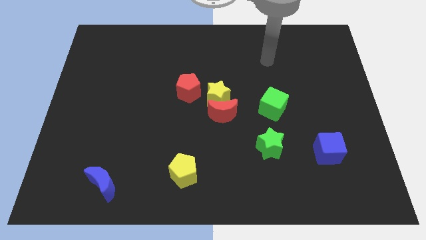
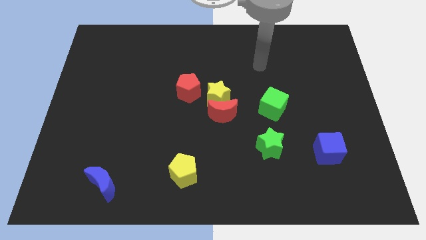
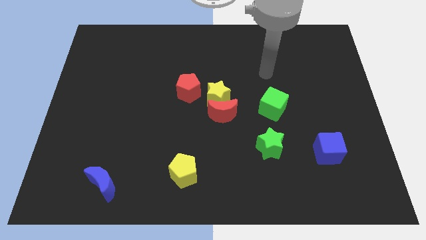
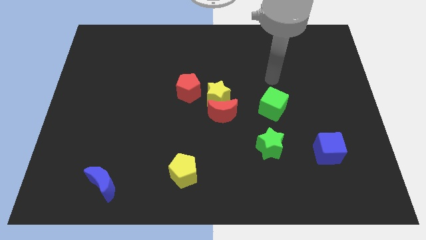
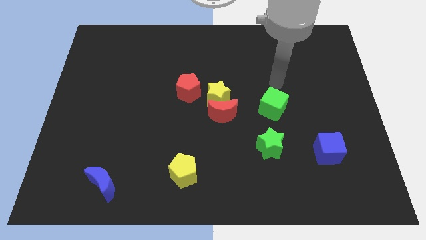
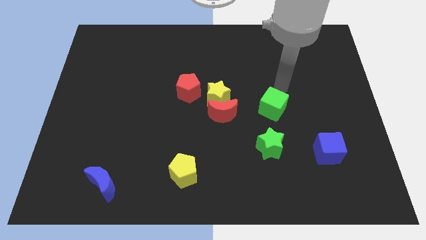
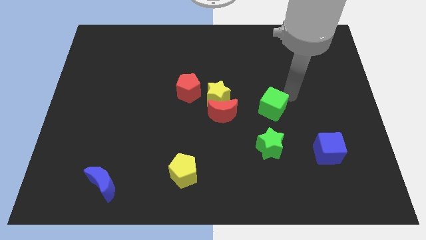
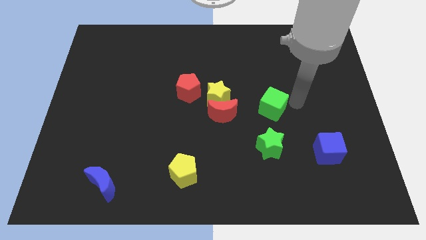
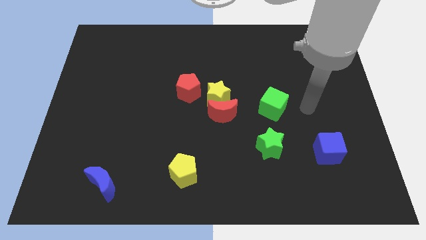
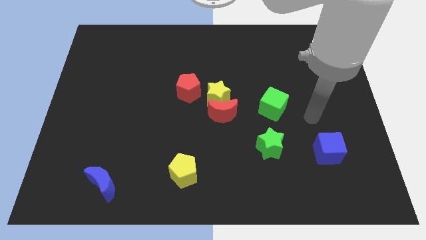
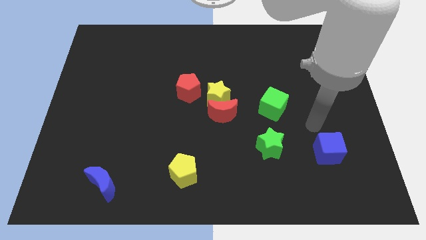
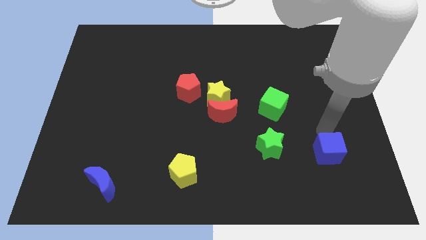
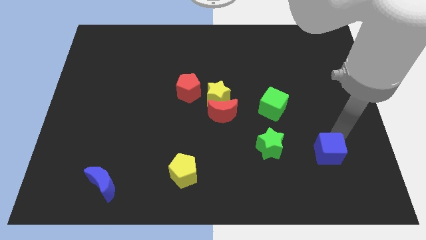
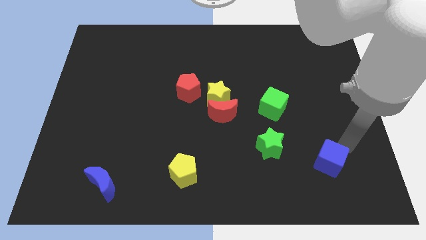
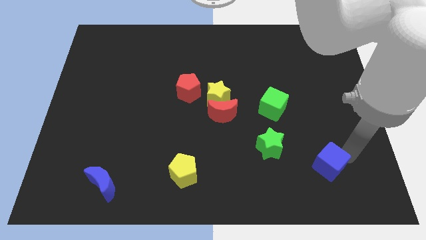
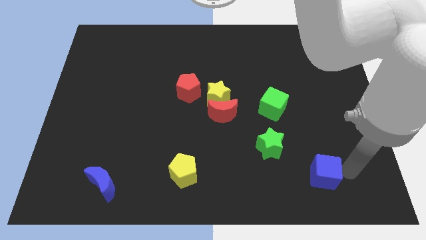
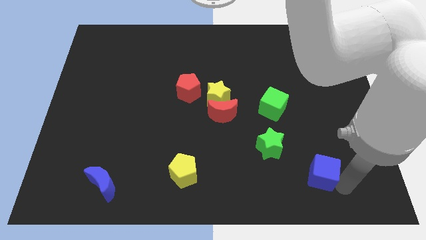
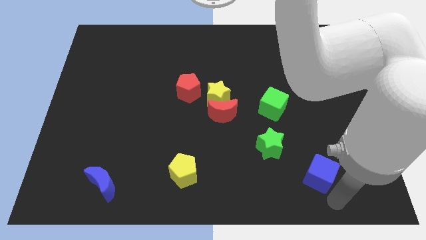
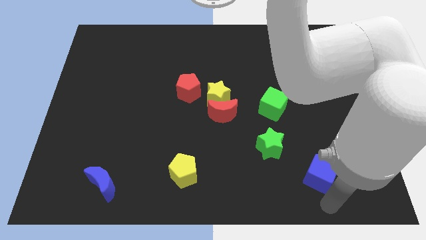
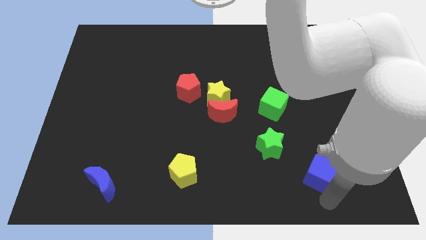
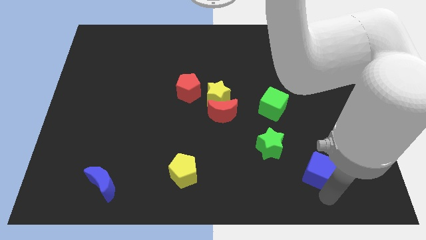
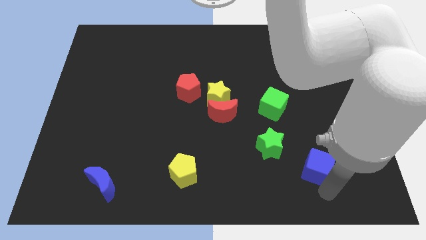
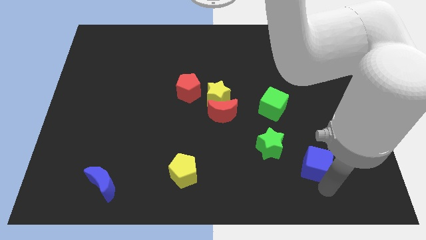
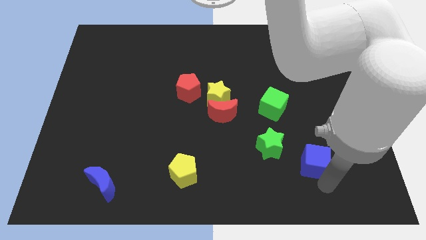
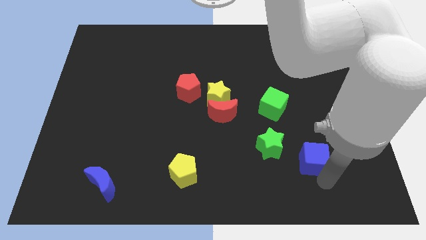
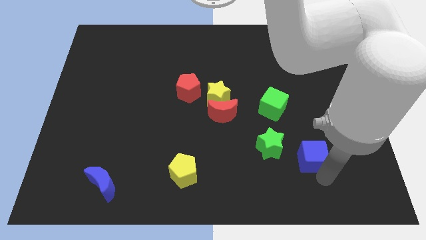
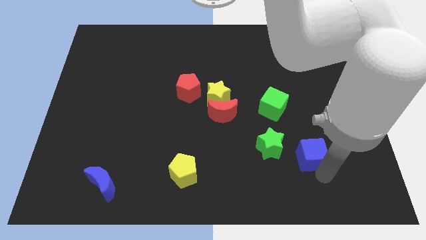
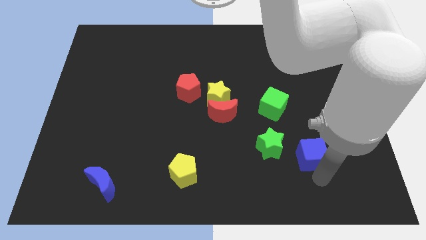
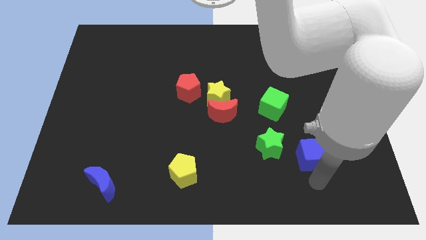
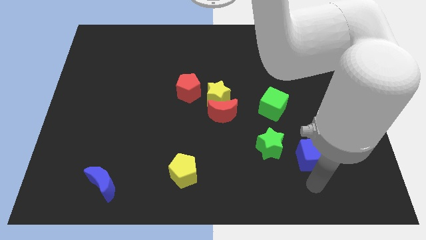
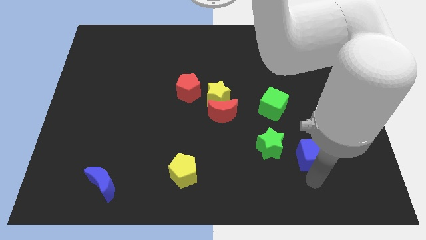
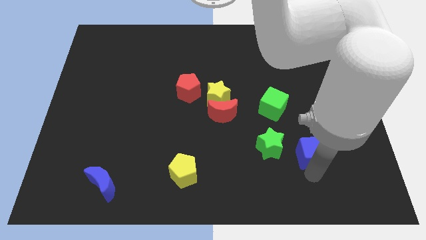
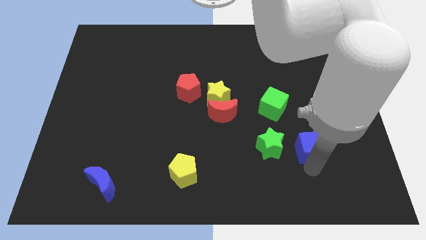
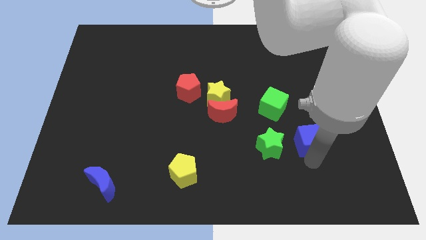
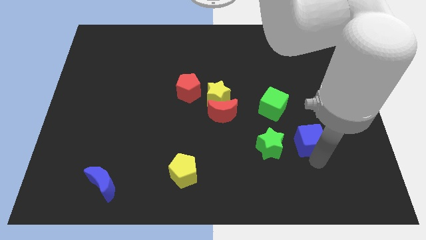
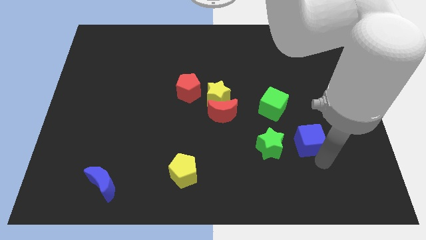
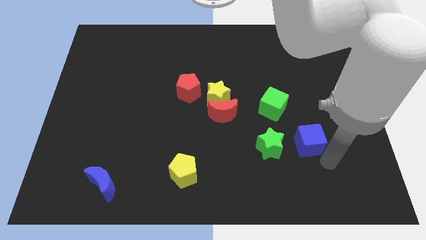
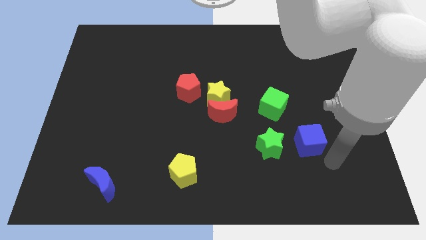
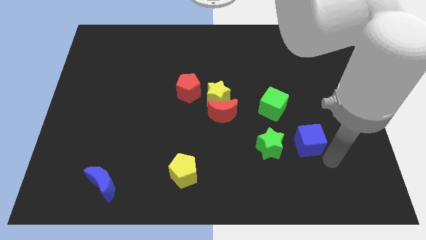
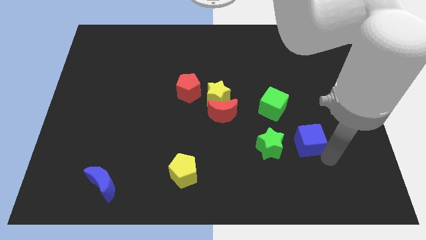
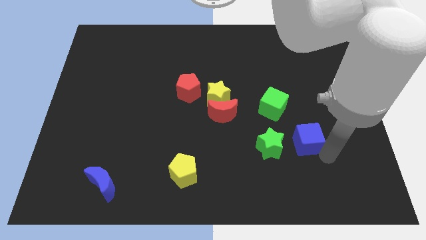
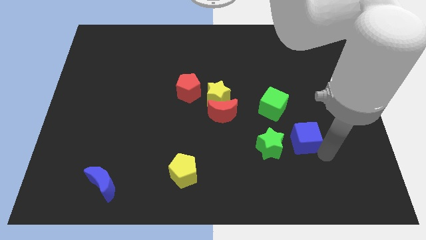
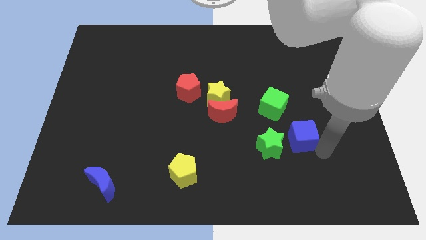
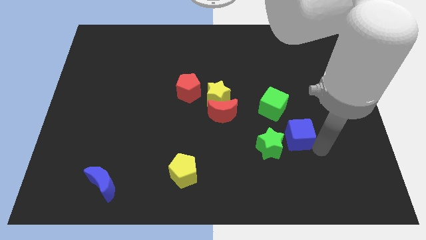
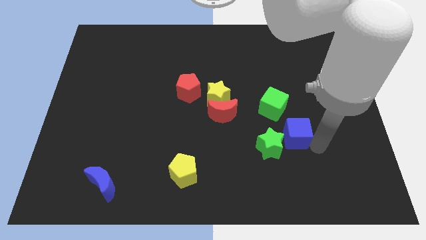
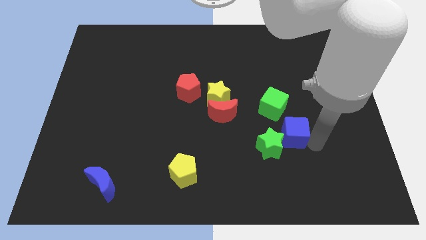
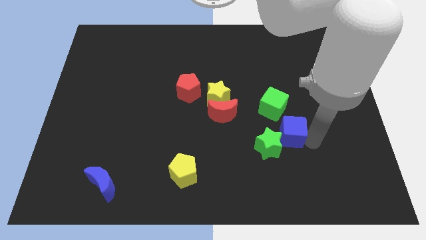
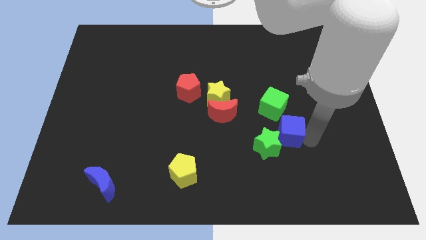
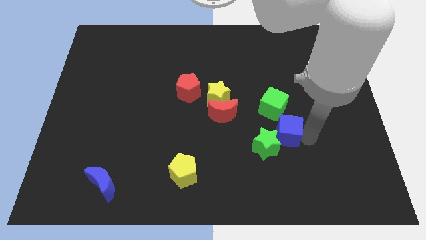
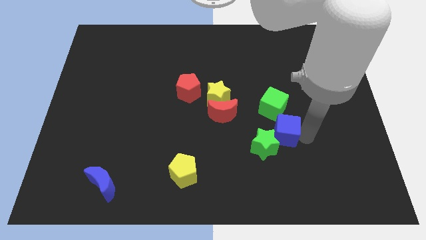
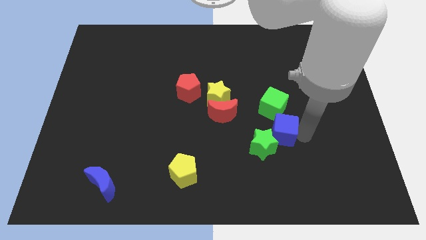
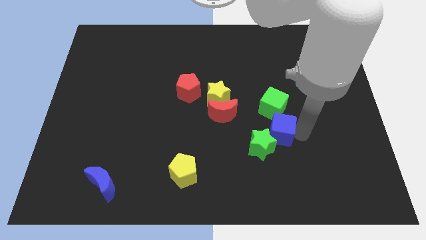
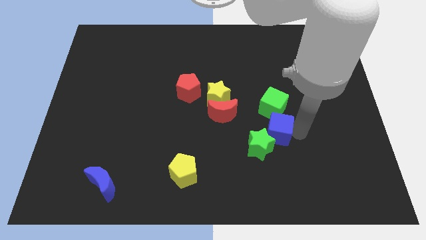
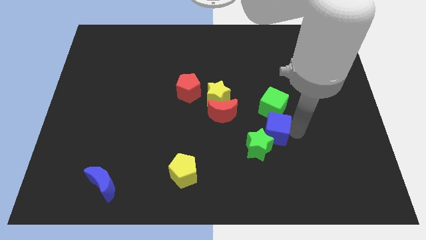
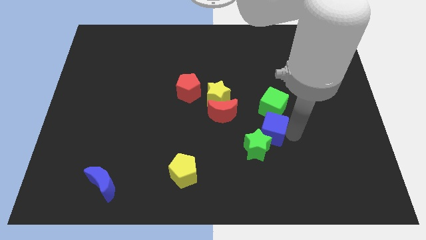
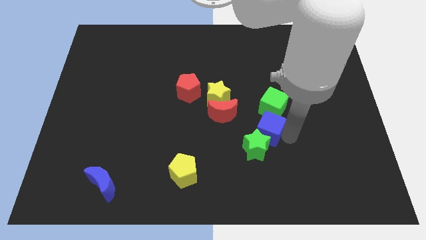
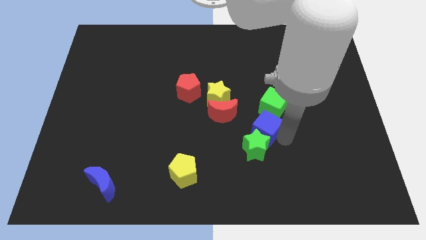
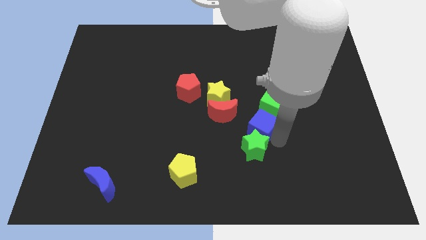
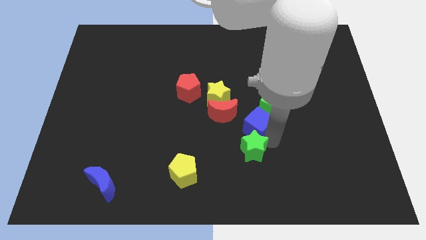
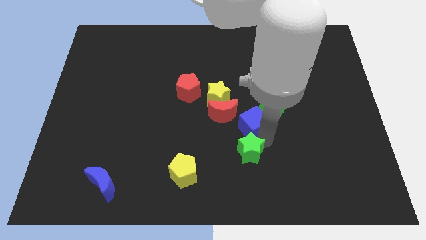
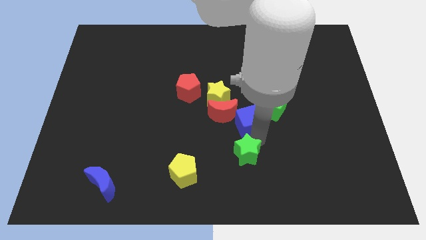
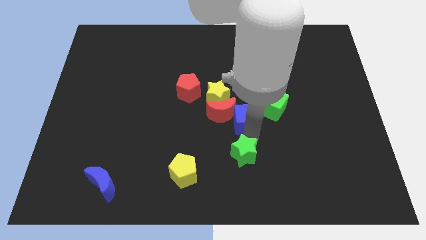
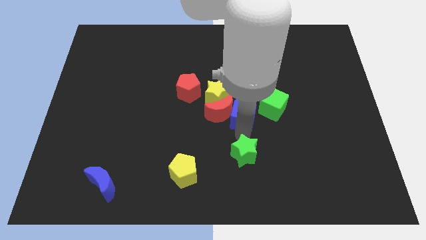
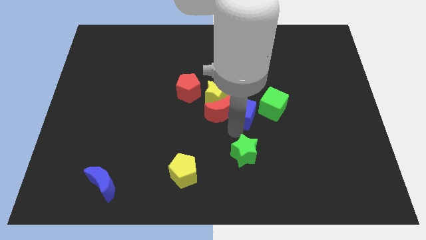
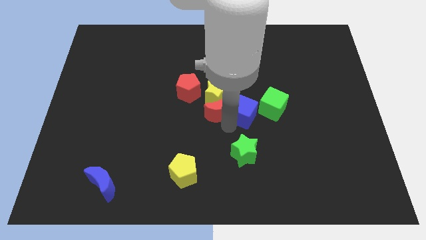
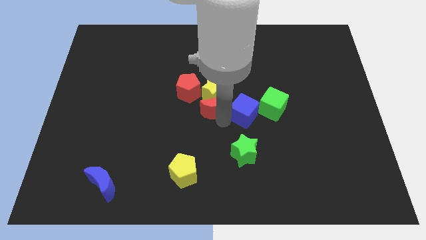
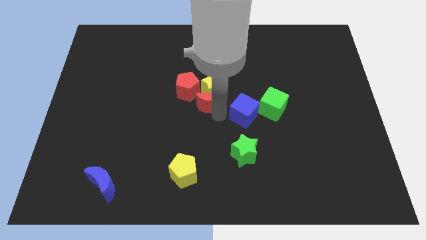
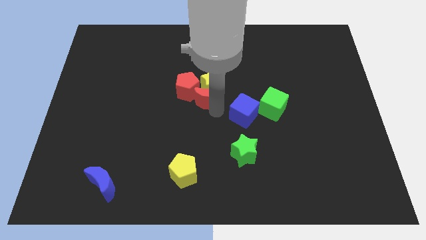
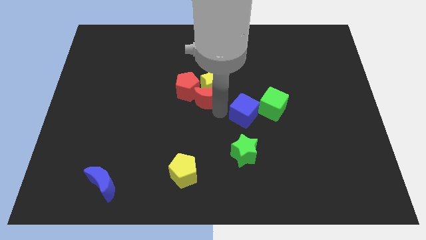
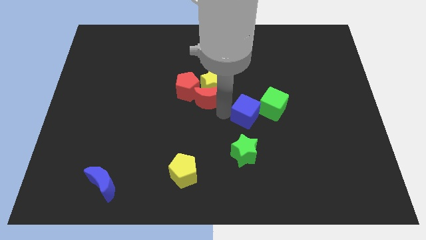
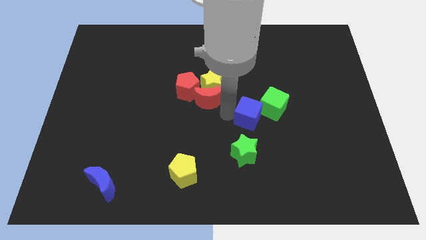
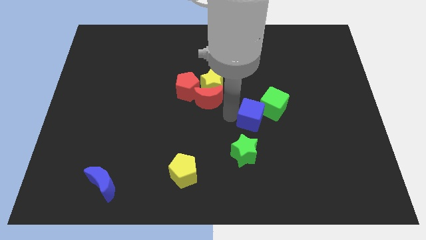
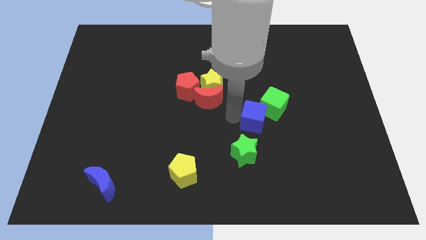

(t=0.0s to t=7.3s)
push the blue cube towards the green cube
